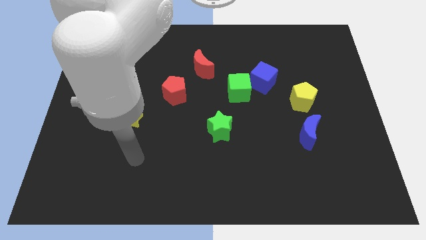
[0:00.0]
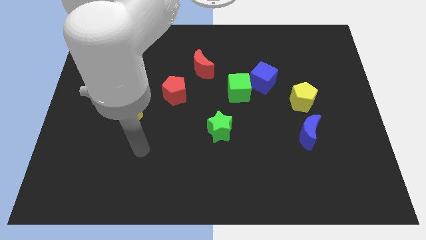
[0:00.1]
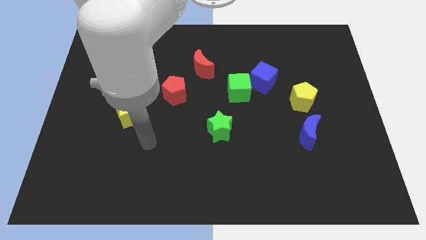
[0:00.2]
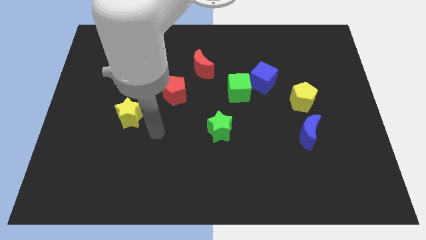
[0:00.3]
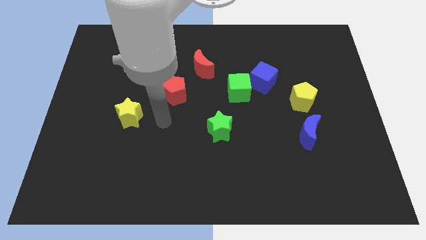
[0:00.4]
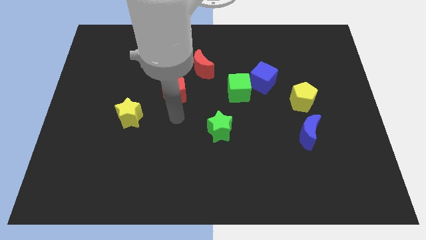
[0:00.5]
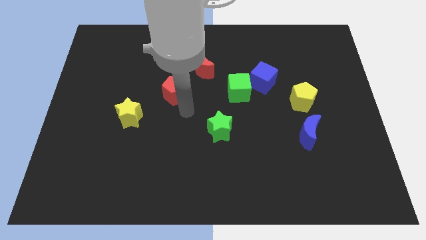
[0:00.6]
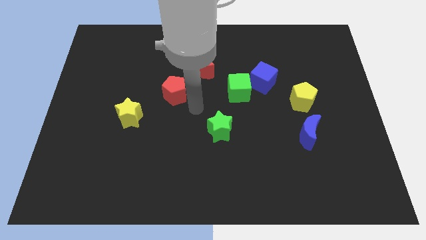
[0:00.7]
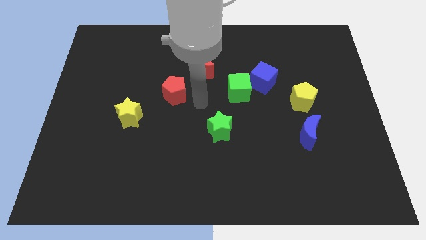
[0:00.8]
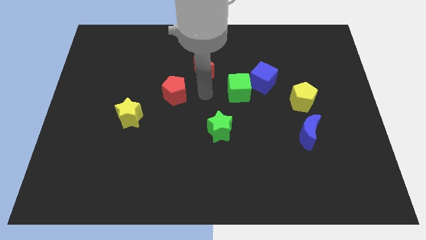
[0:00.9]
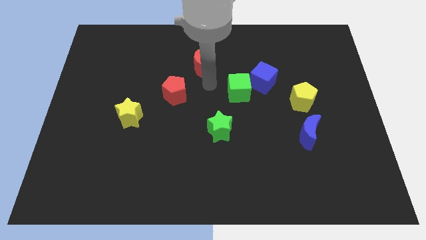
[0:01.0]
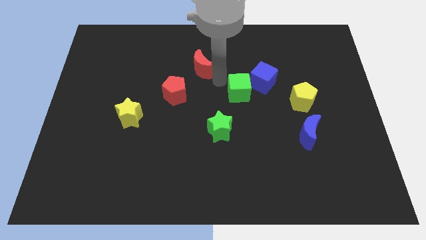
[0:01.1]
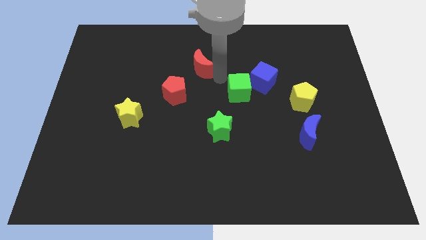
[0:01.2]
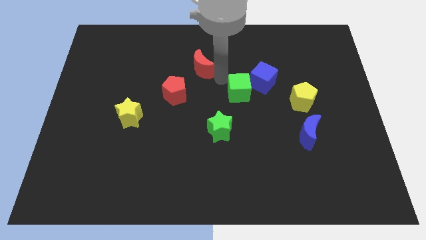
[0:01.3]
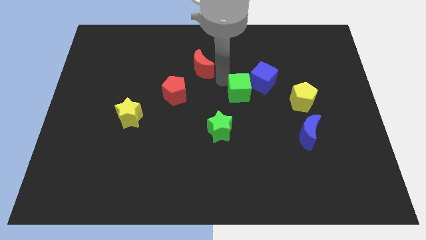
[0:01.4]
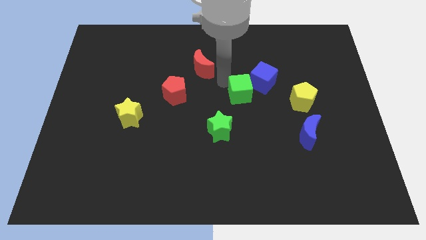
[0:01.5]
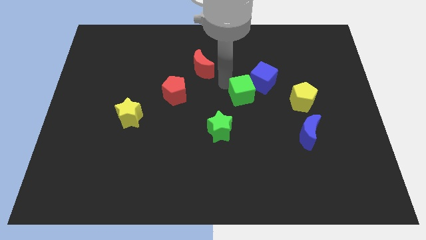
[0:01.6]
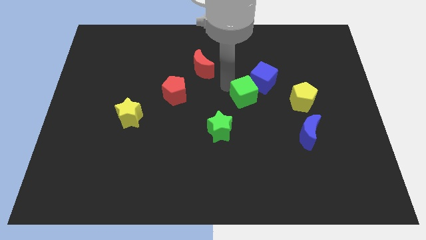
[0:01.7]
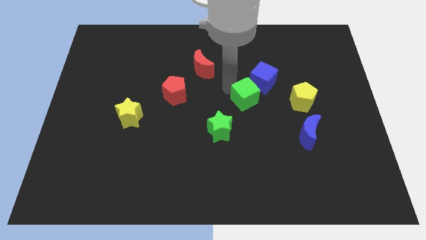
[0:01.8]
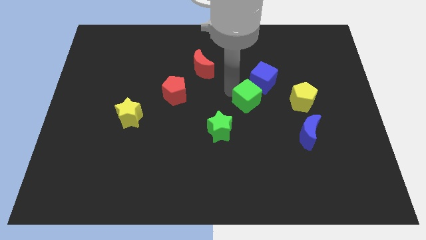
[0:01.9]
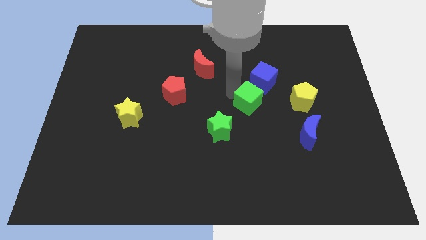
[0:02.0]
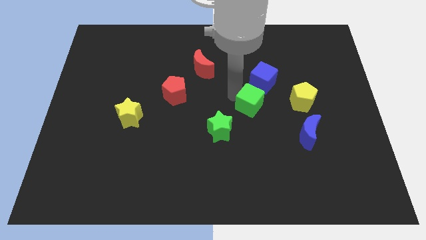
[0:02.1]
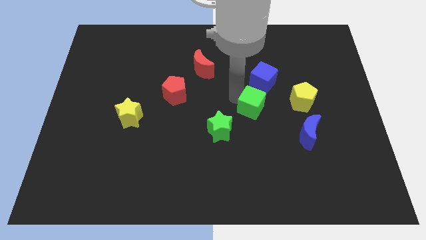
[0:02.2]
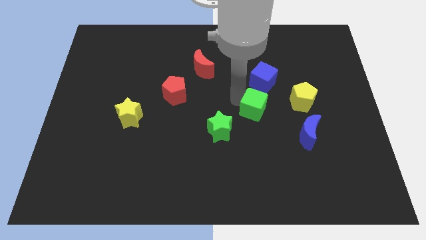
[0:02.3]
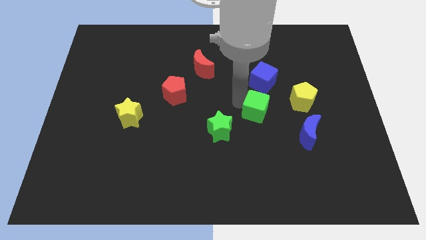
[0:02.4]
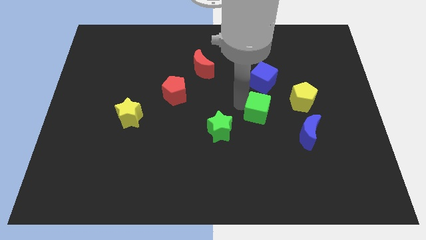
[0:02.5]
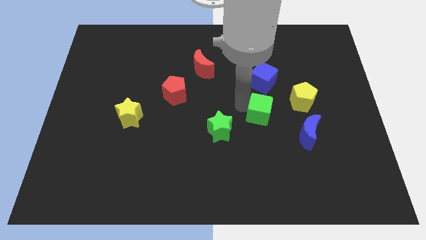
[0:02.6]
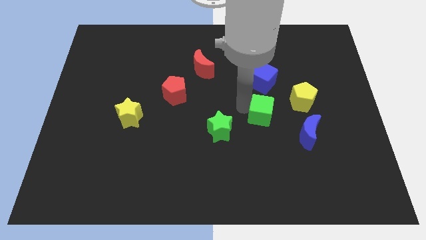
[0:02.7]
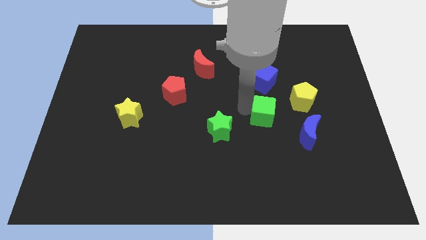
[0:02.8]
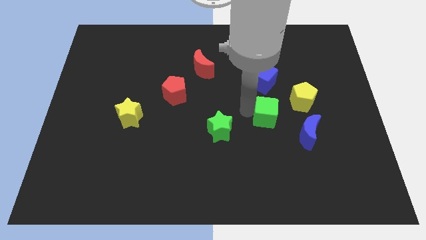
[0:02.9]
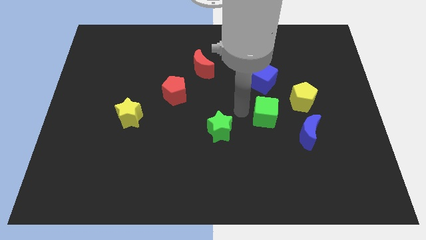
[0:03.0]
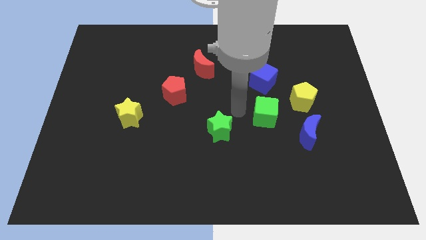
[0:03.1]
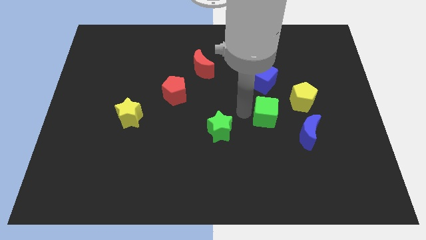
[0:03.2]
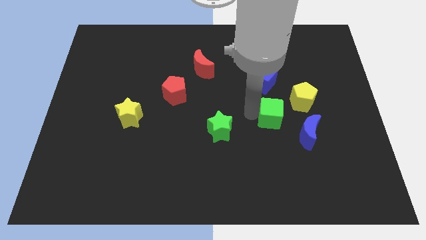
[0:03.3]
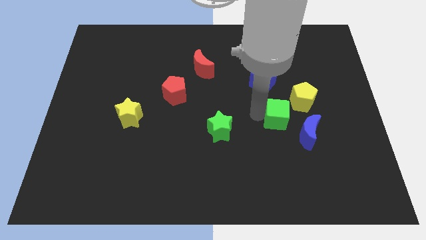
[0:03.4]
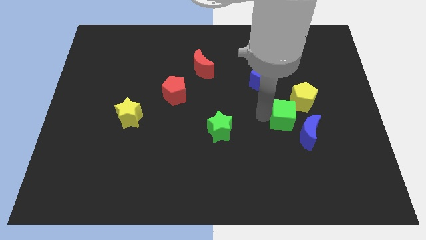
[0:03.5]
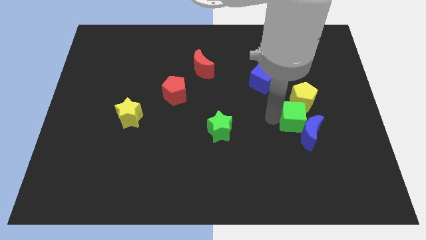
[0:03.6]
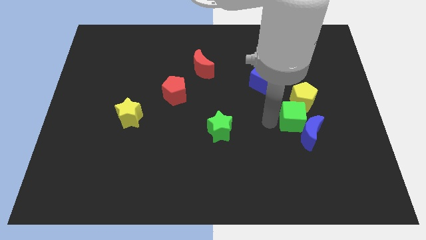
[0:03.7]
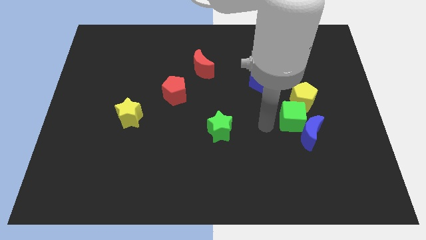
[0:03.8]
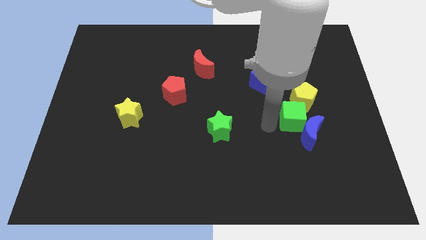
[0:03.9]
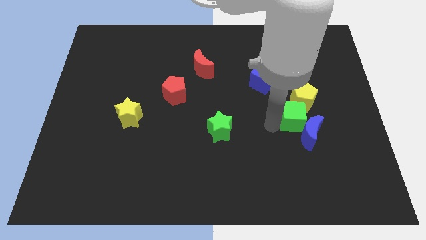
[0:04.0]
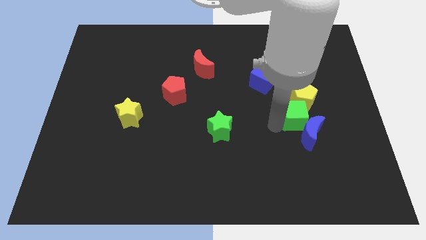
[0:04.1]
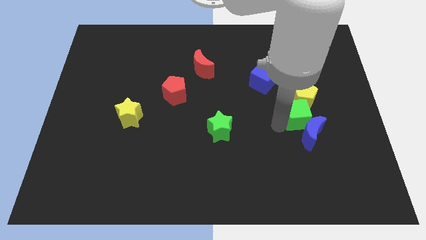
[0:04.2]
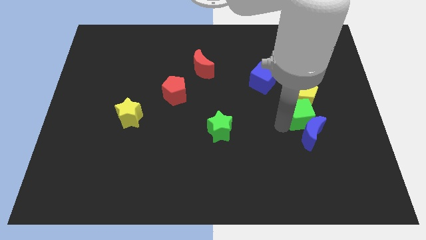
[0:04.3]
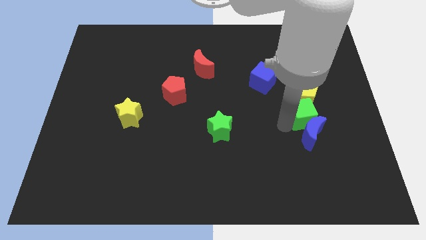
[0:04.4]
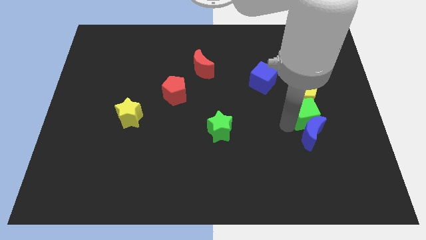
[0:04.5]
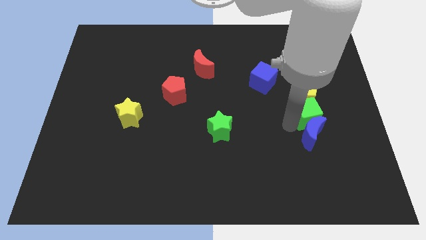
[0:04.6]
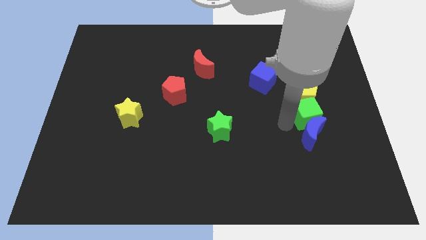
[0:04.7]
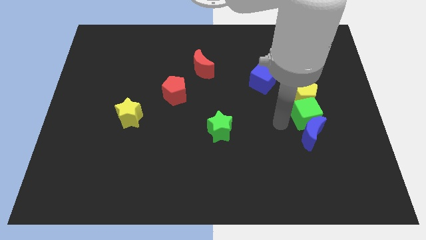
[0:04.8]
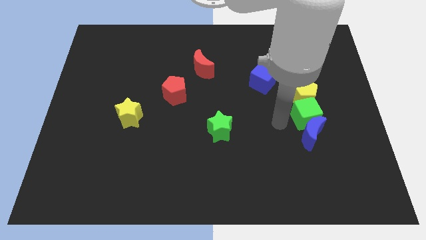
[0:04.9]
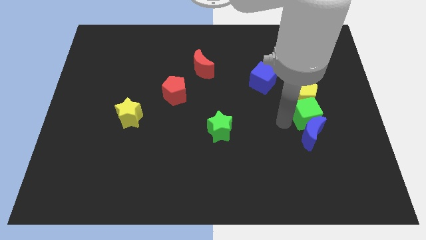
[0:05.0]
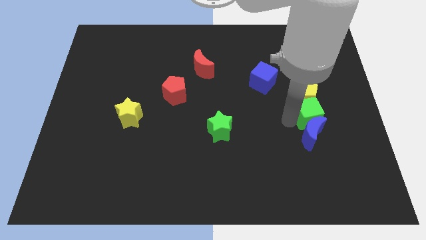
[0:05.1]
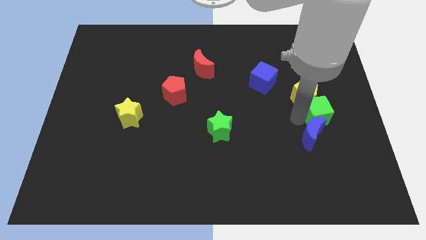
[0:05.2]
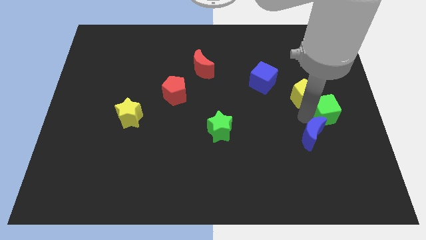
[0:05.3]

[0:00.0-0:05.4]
put the green cube to the center right
